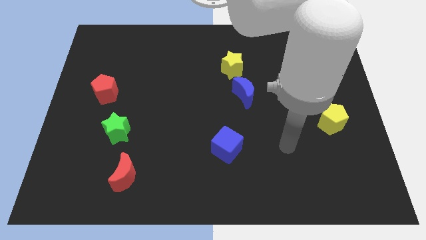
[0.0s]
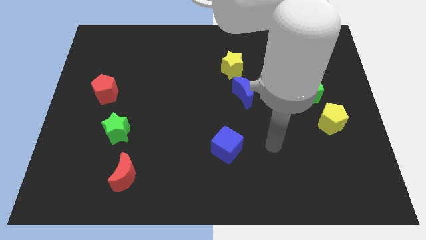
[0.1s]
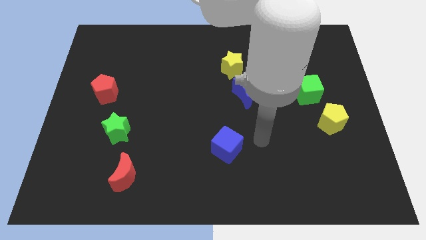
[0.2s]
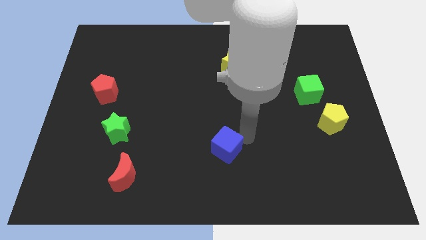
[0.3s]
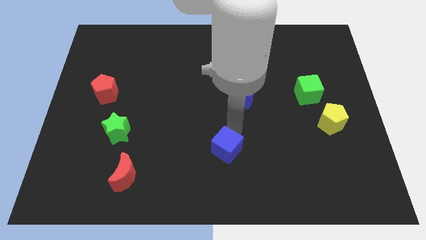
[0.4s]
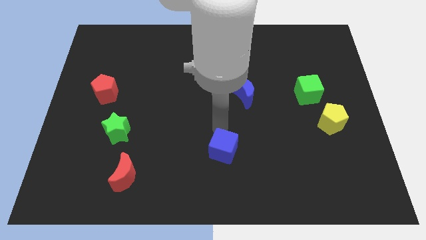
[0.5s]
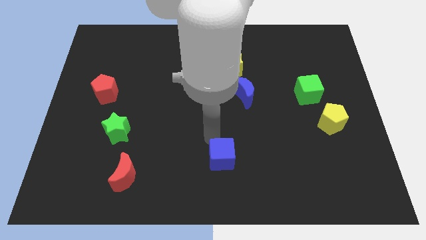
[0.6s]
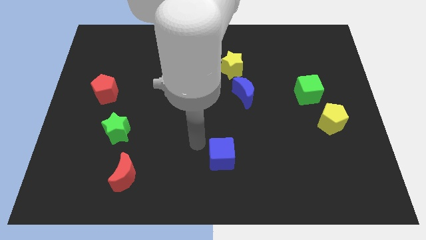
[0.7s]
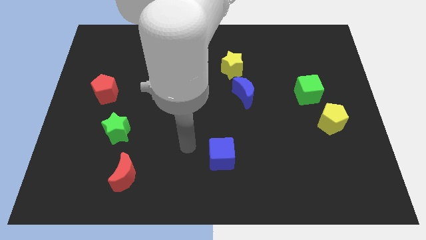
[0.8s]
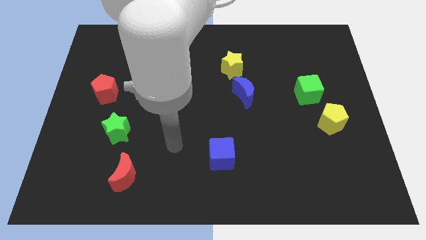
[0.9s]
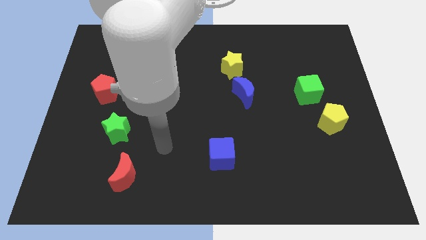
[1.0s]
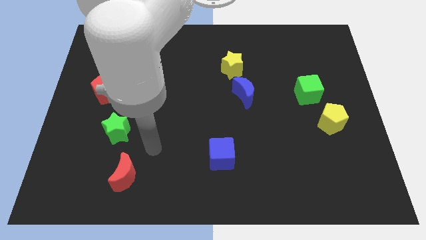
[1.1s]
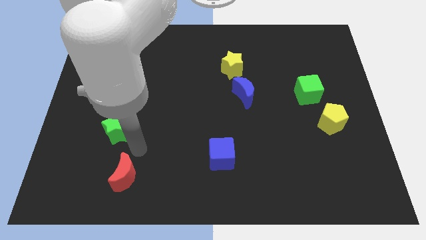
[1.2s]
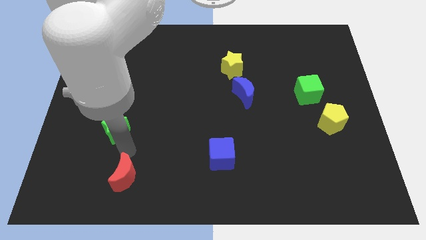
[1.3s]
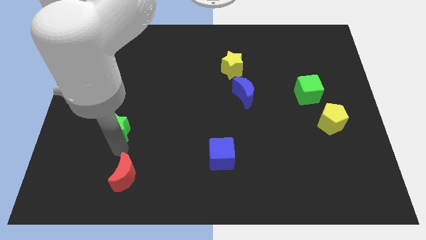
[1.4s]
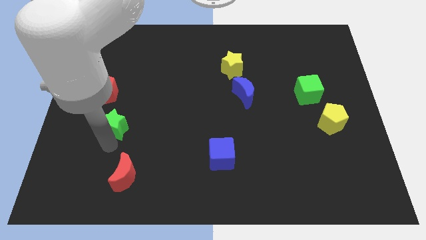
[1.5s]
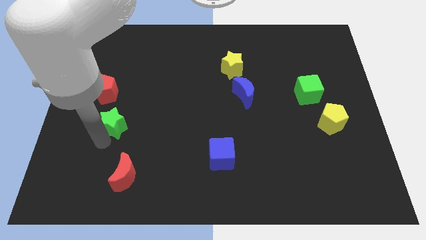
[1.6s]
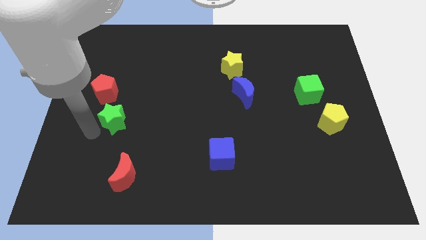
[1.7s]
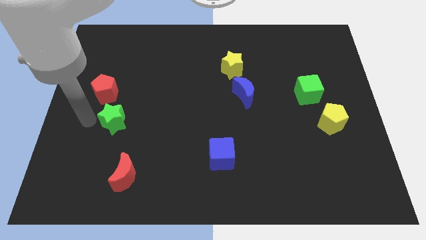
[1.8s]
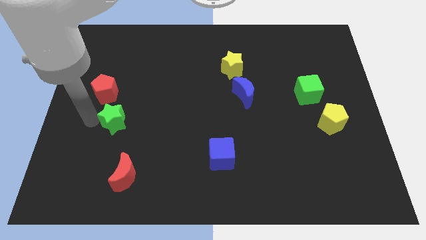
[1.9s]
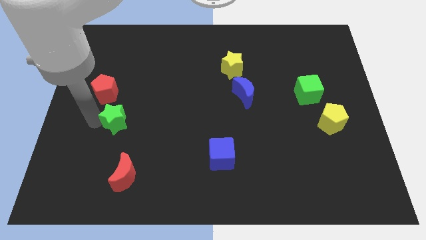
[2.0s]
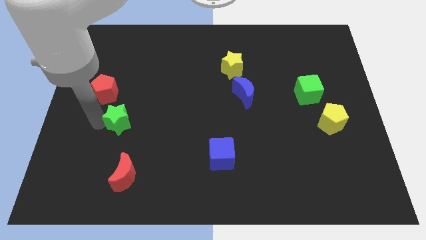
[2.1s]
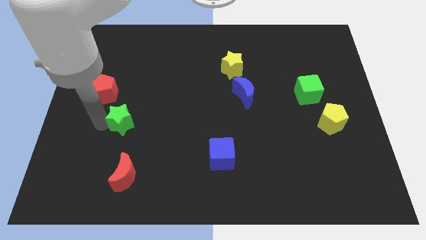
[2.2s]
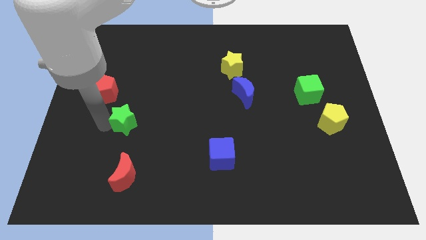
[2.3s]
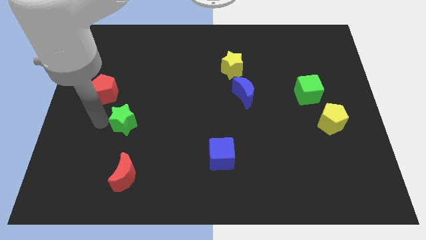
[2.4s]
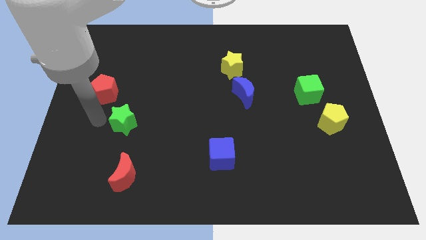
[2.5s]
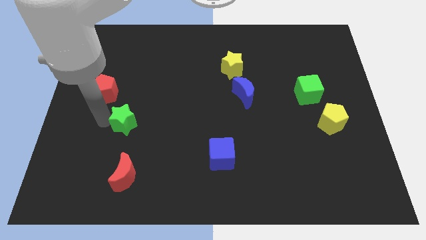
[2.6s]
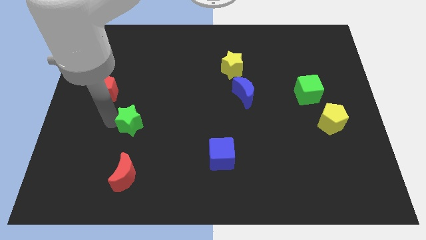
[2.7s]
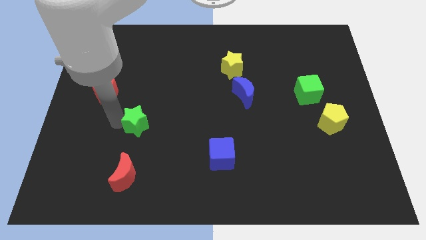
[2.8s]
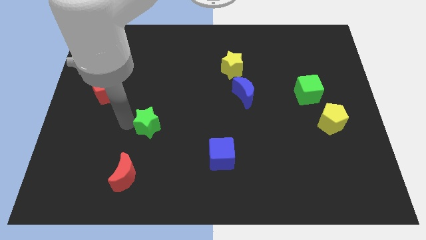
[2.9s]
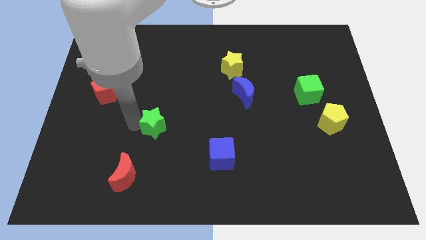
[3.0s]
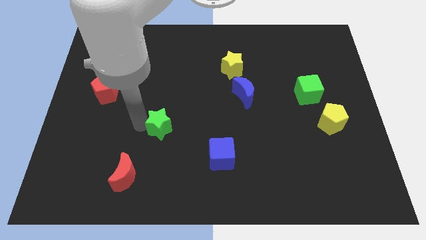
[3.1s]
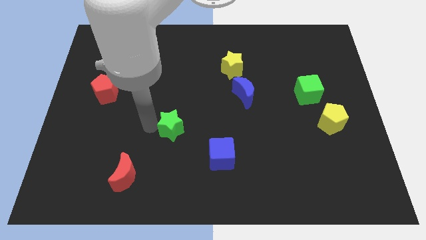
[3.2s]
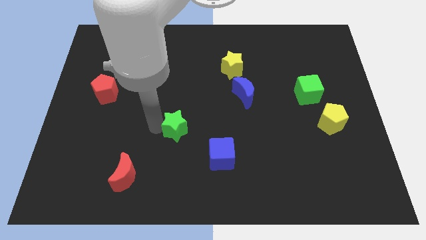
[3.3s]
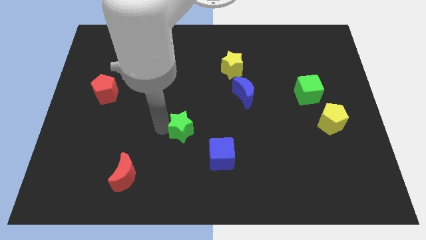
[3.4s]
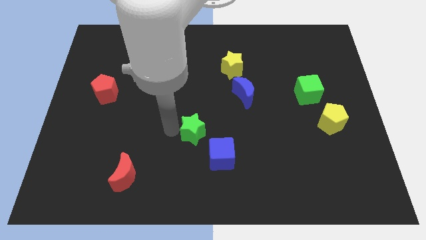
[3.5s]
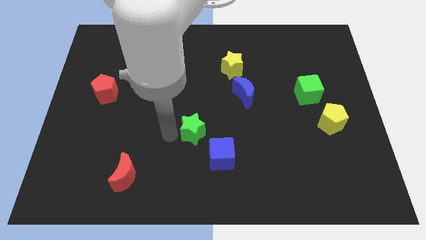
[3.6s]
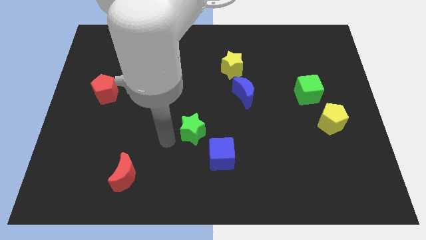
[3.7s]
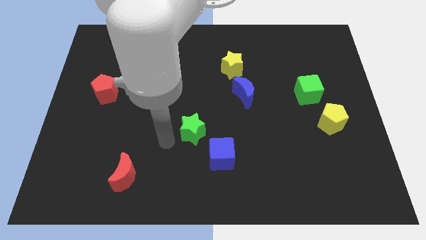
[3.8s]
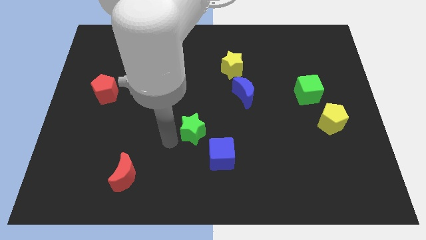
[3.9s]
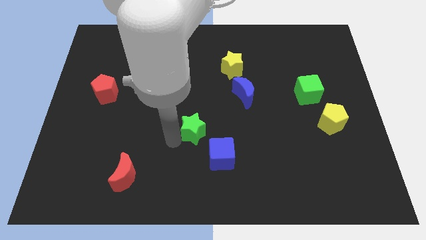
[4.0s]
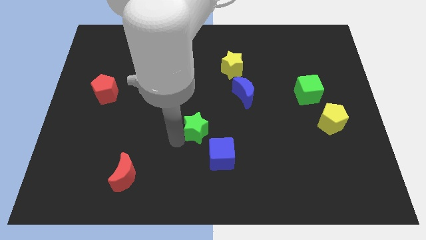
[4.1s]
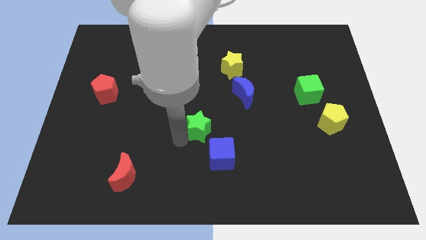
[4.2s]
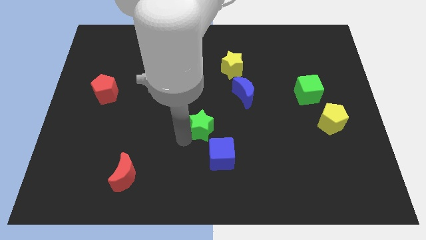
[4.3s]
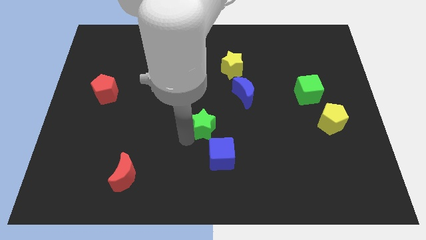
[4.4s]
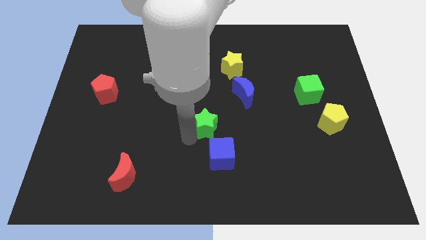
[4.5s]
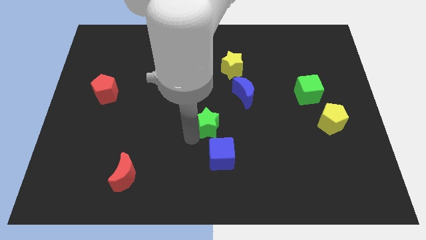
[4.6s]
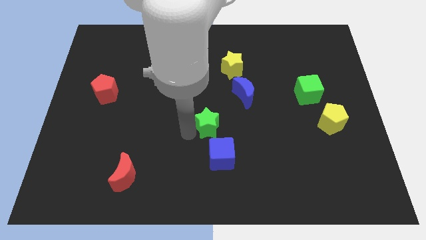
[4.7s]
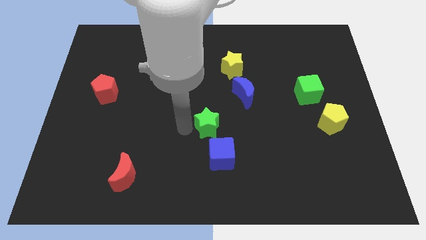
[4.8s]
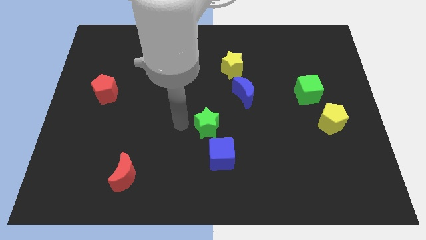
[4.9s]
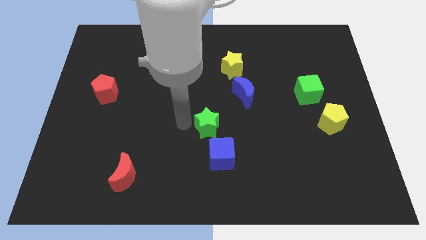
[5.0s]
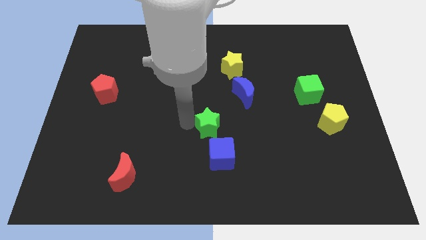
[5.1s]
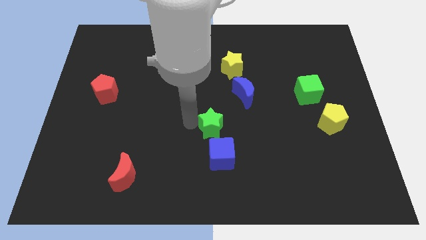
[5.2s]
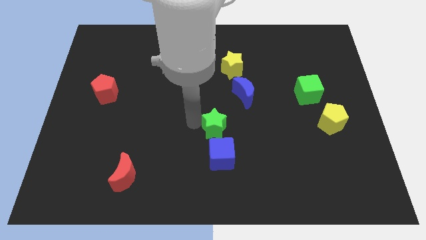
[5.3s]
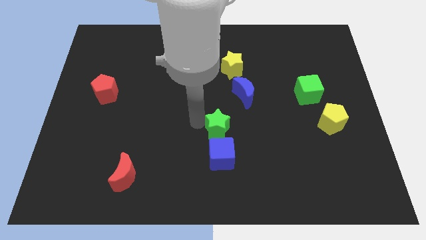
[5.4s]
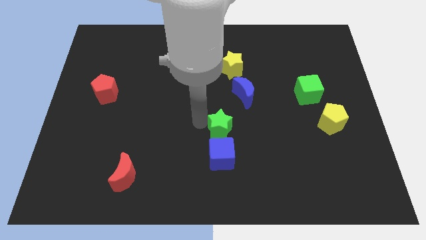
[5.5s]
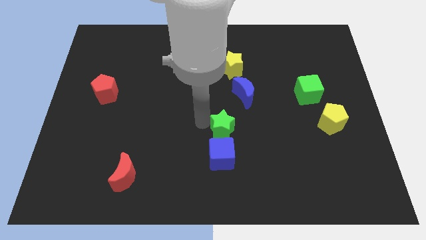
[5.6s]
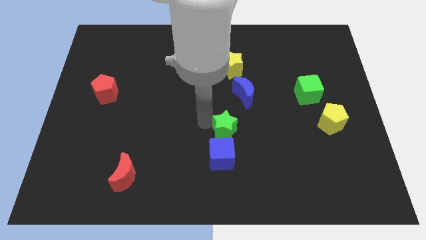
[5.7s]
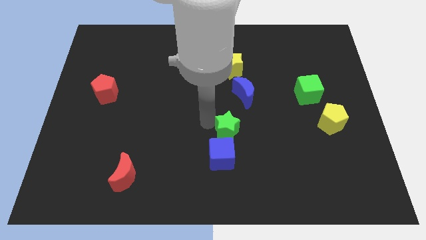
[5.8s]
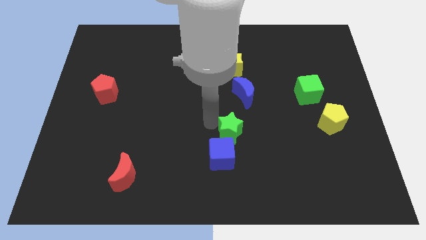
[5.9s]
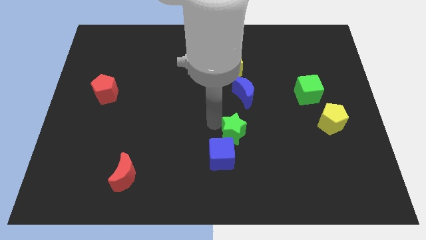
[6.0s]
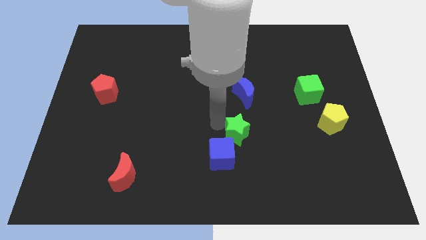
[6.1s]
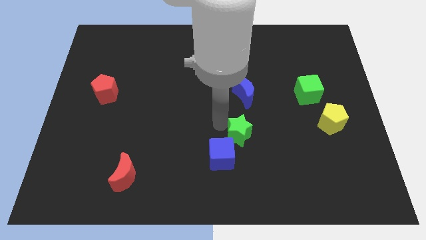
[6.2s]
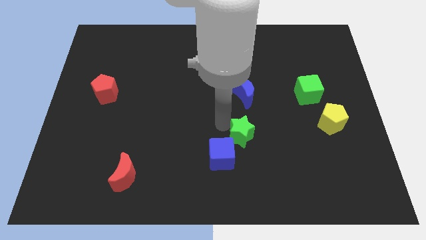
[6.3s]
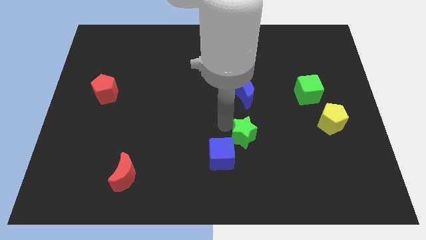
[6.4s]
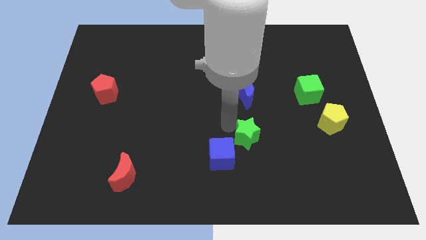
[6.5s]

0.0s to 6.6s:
put the green star just right of the blue cube
